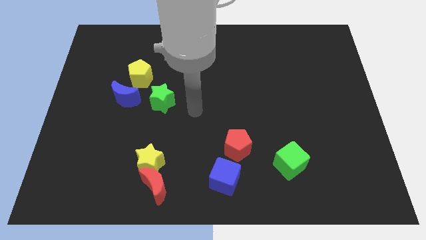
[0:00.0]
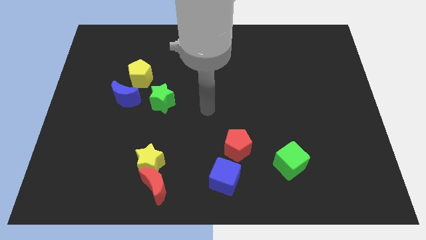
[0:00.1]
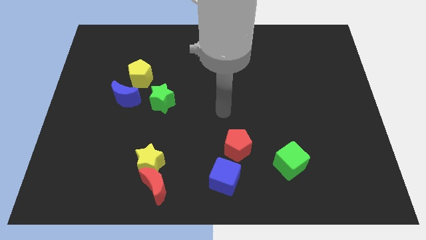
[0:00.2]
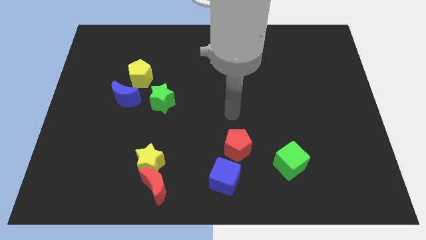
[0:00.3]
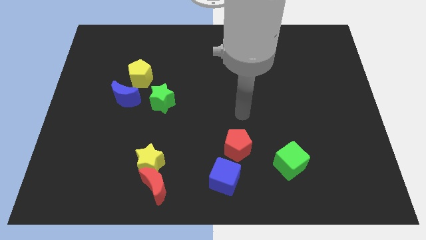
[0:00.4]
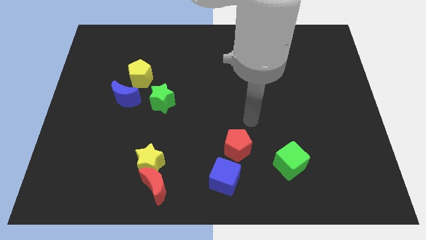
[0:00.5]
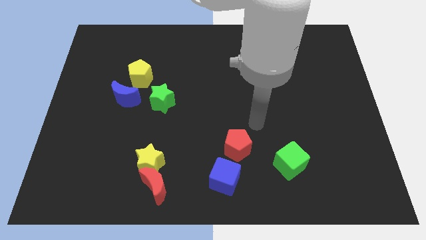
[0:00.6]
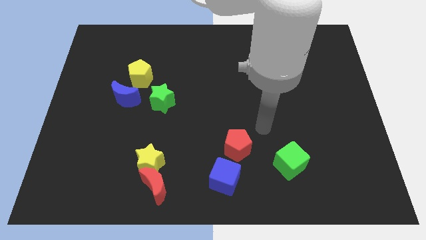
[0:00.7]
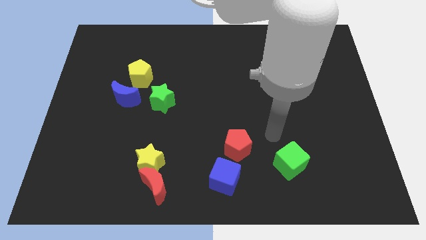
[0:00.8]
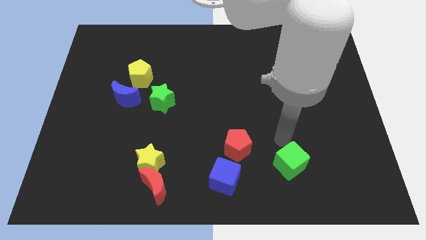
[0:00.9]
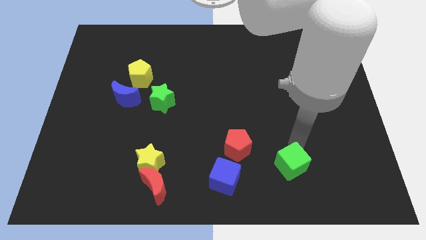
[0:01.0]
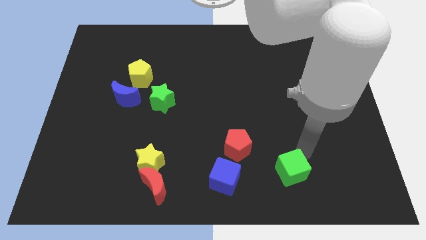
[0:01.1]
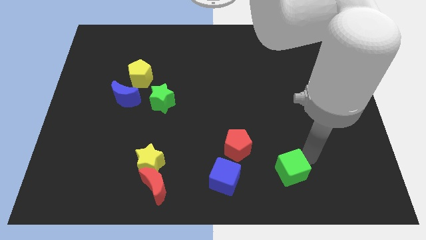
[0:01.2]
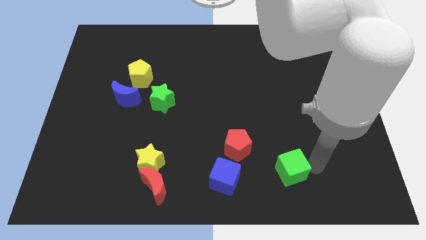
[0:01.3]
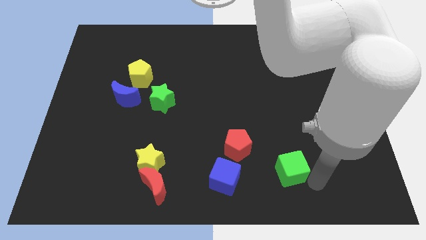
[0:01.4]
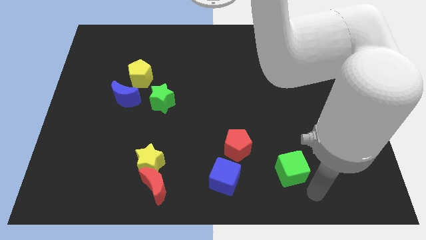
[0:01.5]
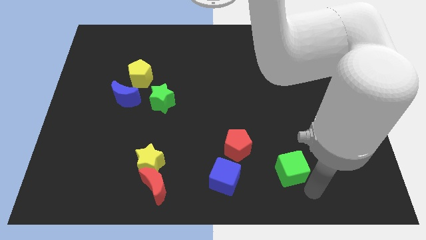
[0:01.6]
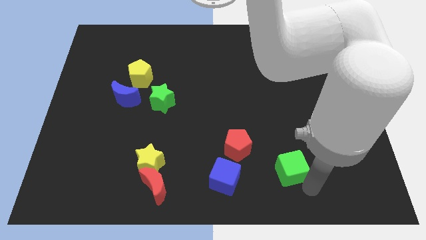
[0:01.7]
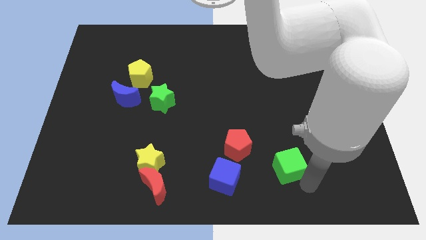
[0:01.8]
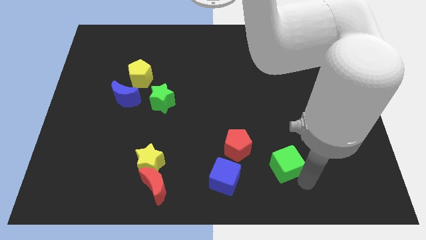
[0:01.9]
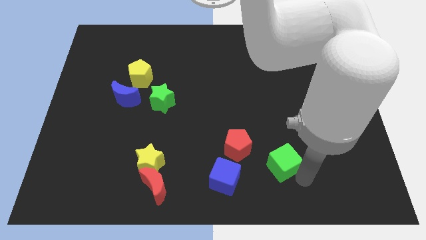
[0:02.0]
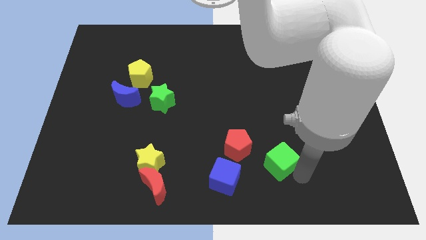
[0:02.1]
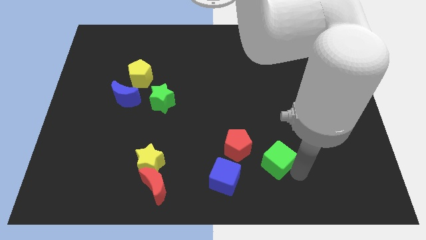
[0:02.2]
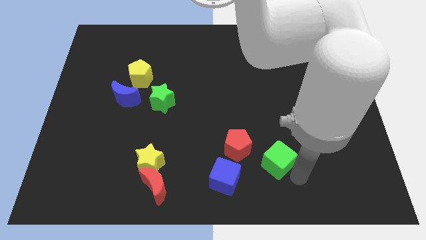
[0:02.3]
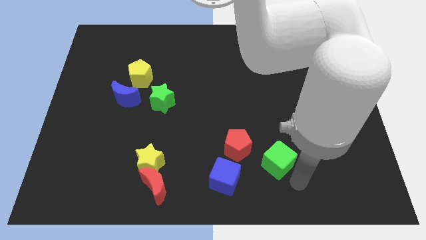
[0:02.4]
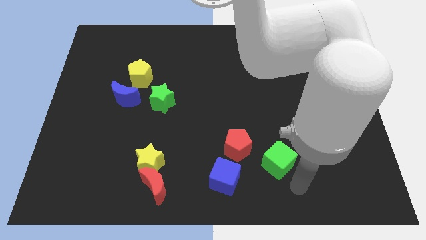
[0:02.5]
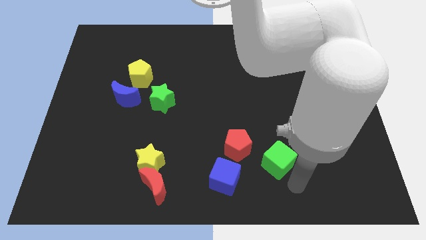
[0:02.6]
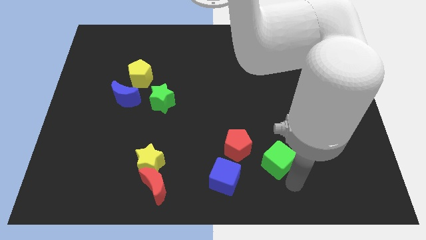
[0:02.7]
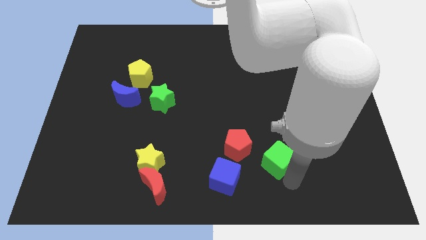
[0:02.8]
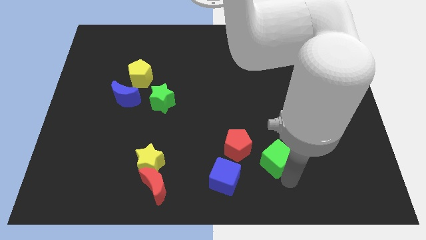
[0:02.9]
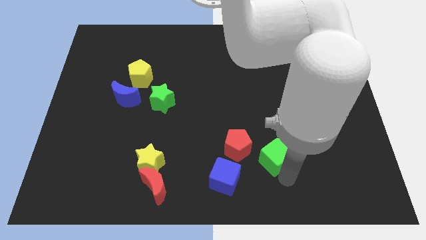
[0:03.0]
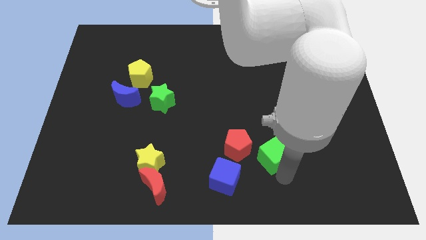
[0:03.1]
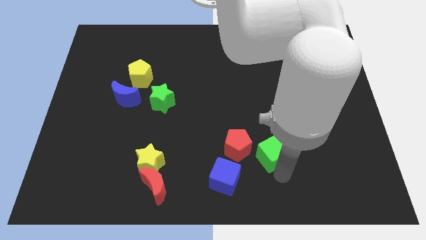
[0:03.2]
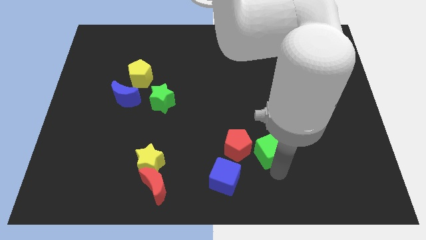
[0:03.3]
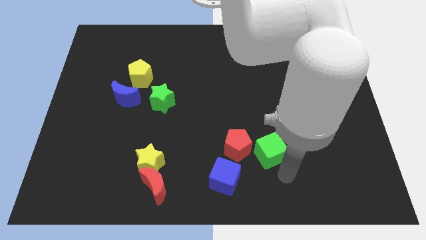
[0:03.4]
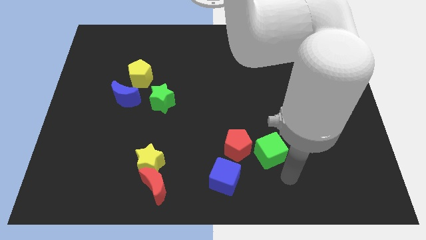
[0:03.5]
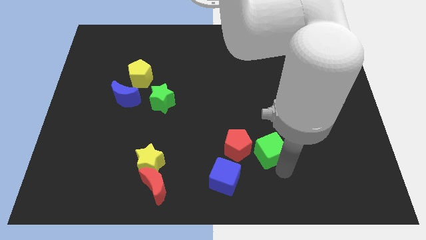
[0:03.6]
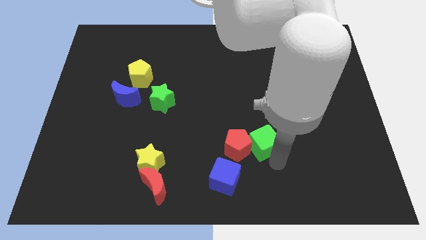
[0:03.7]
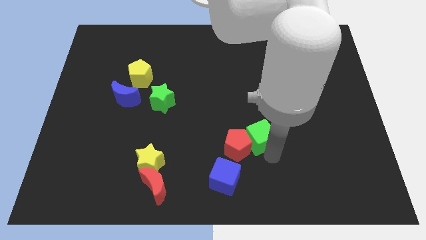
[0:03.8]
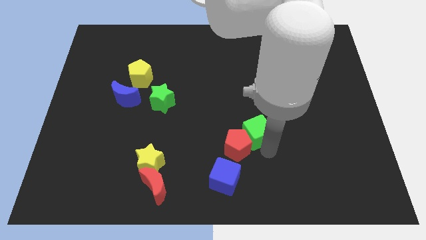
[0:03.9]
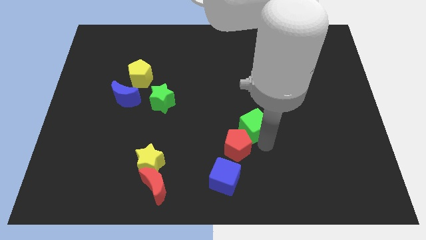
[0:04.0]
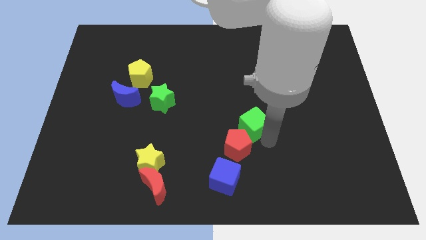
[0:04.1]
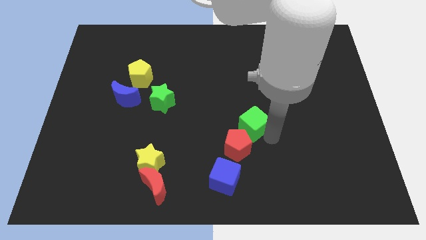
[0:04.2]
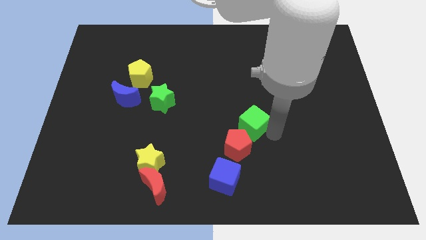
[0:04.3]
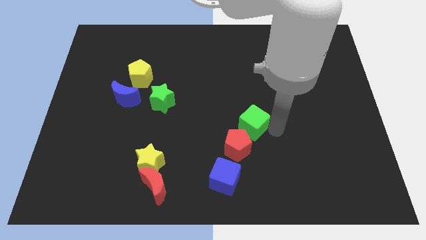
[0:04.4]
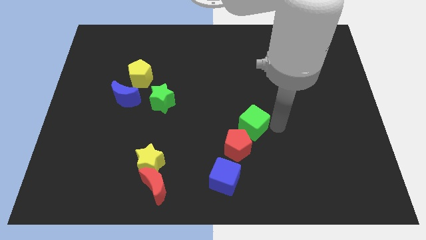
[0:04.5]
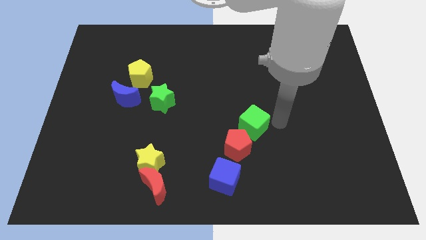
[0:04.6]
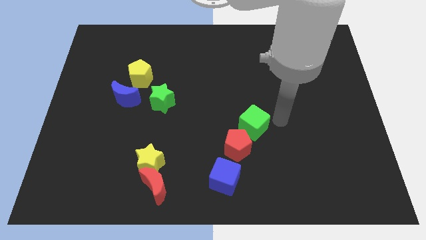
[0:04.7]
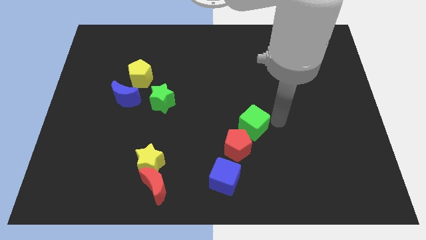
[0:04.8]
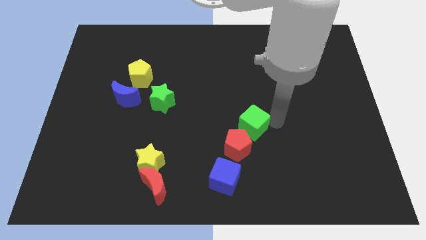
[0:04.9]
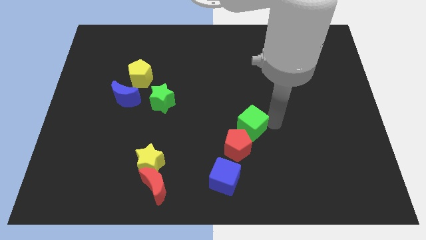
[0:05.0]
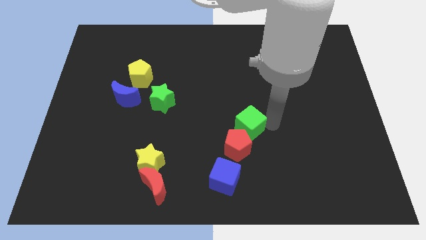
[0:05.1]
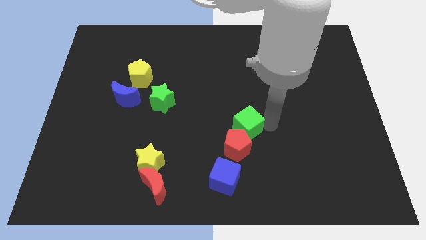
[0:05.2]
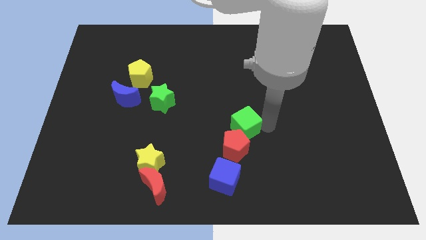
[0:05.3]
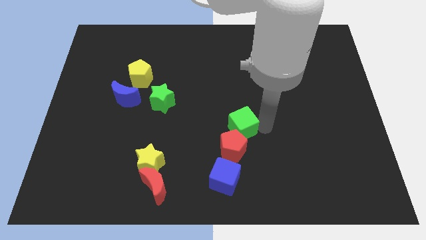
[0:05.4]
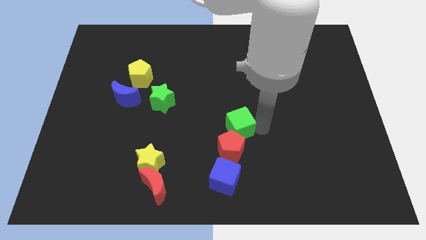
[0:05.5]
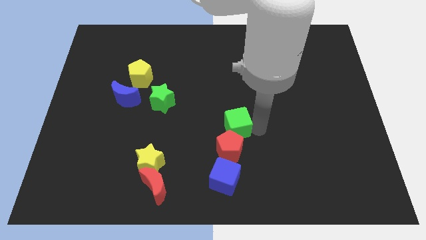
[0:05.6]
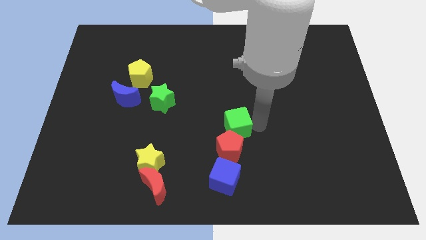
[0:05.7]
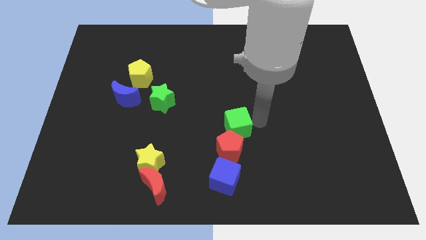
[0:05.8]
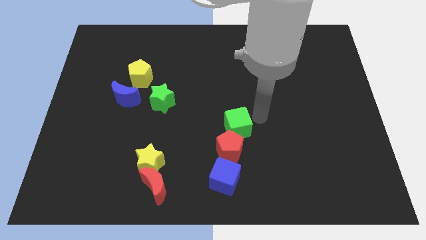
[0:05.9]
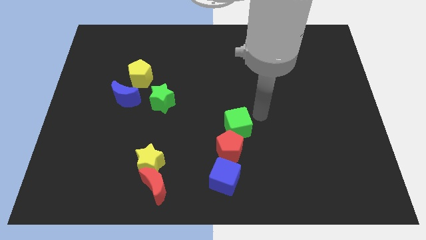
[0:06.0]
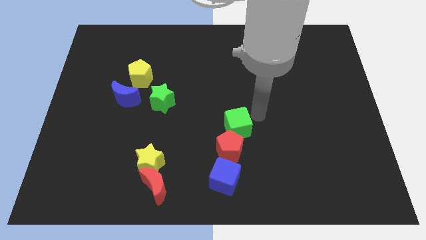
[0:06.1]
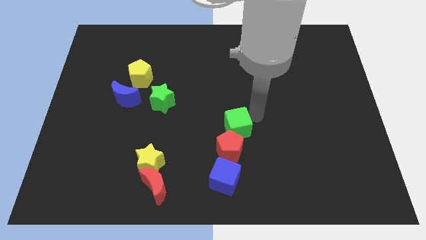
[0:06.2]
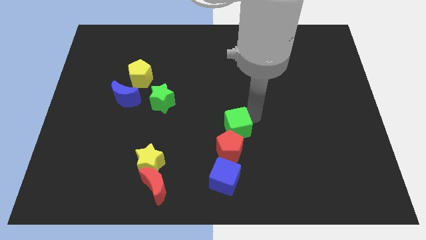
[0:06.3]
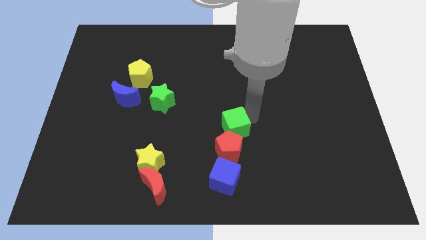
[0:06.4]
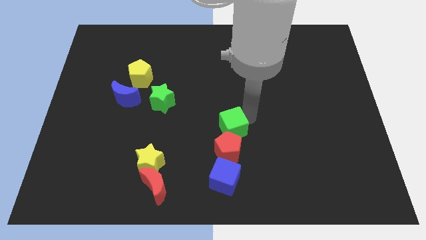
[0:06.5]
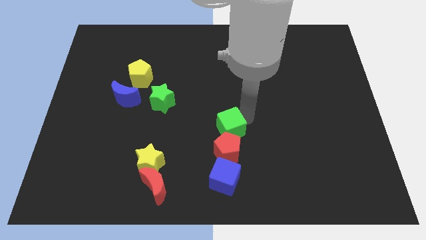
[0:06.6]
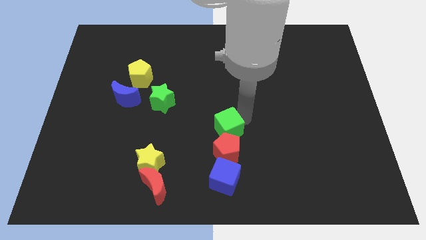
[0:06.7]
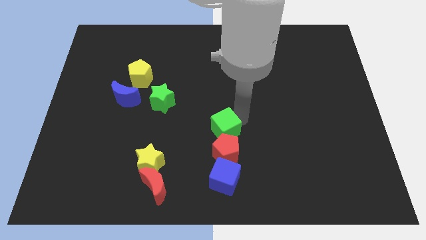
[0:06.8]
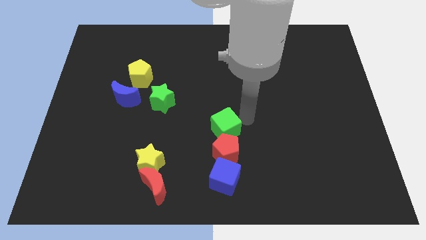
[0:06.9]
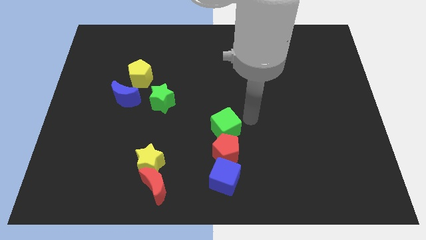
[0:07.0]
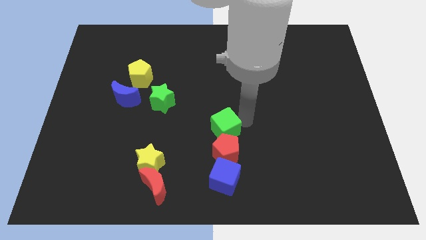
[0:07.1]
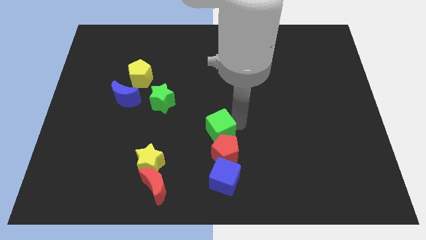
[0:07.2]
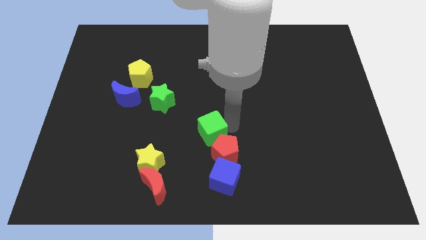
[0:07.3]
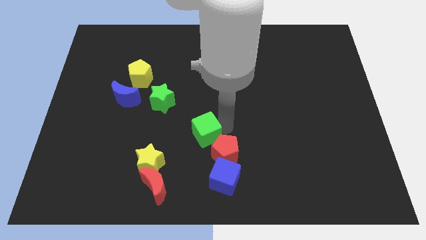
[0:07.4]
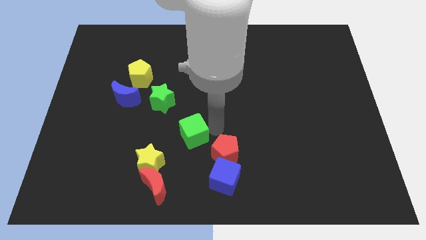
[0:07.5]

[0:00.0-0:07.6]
move the green cube left of the red pentagon

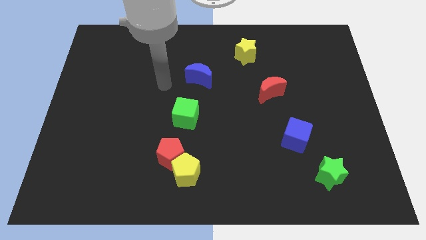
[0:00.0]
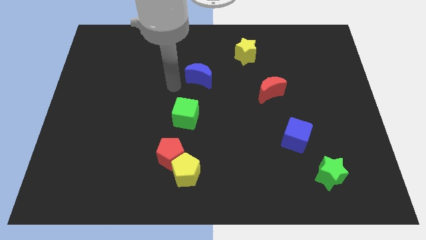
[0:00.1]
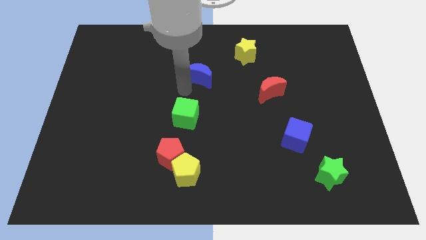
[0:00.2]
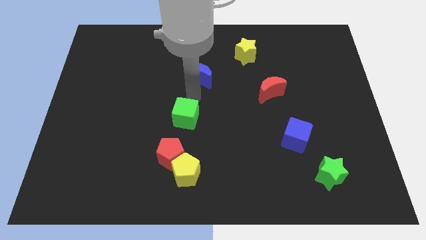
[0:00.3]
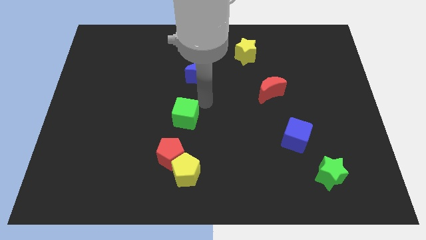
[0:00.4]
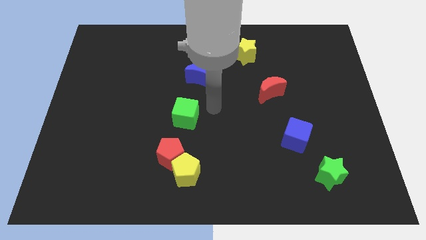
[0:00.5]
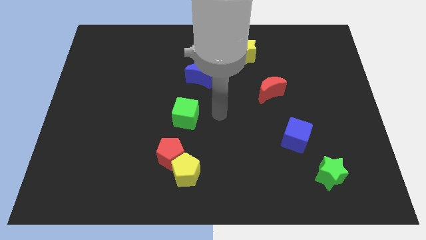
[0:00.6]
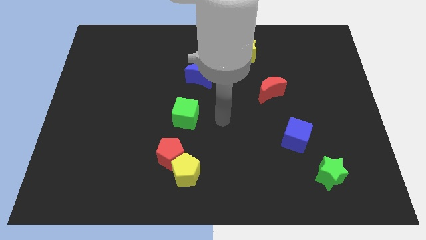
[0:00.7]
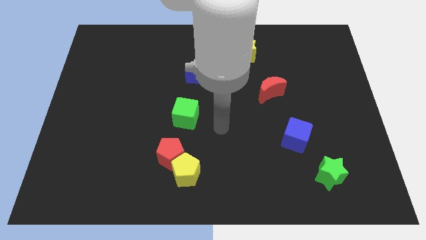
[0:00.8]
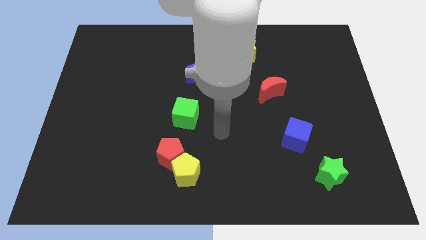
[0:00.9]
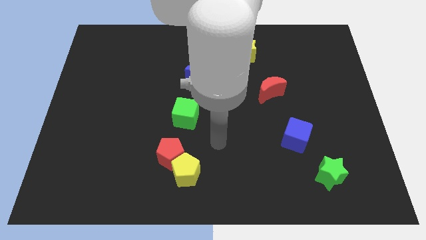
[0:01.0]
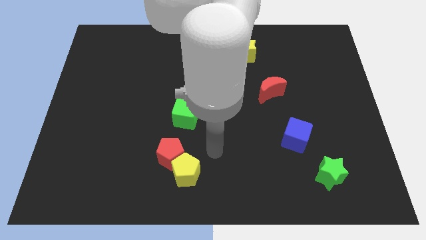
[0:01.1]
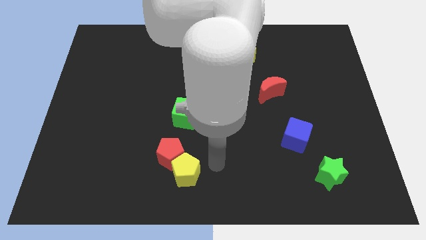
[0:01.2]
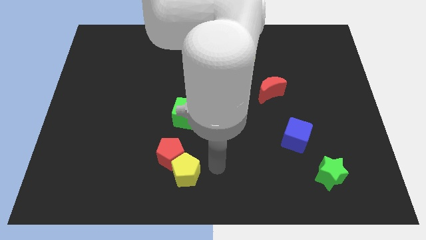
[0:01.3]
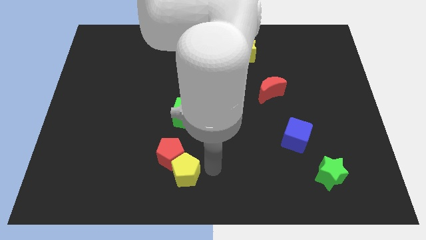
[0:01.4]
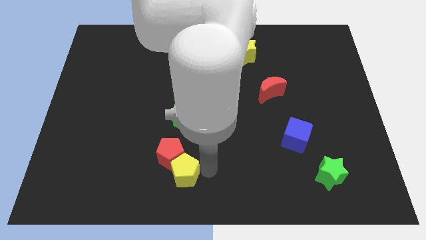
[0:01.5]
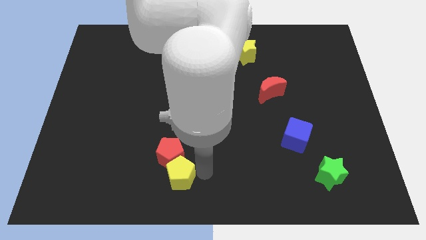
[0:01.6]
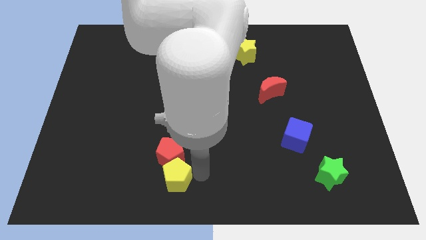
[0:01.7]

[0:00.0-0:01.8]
move the yellow pentagon diagonally down and to the left of the red pentagon
